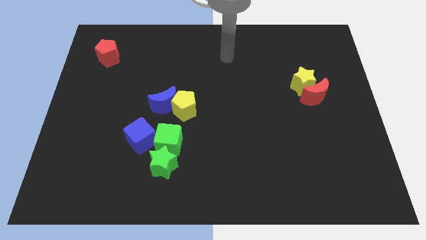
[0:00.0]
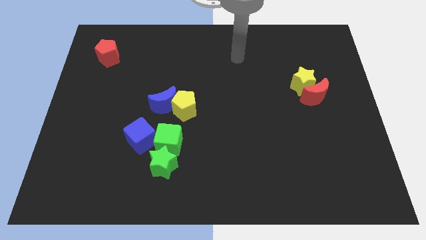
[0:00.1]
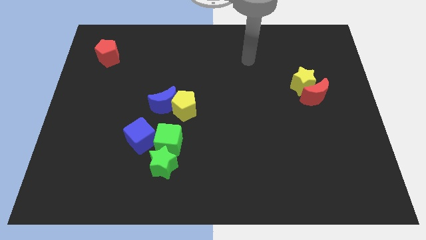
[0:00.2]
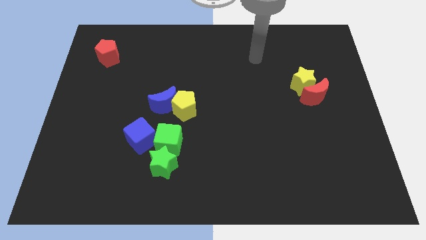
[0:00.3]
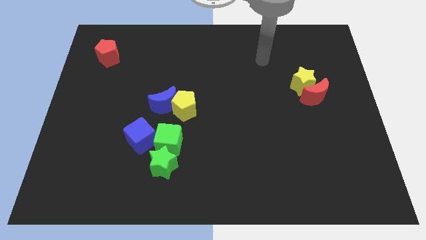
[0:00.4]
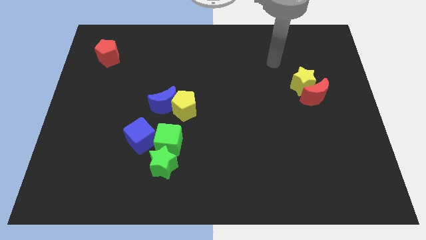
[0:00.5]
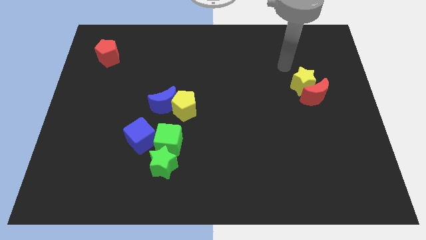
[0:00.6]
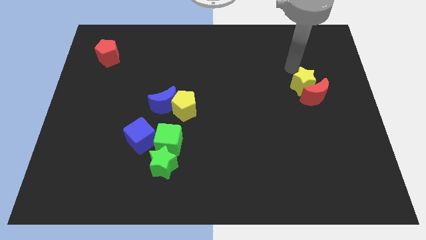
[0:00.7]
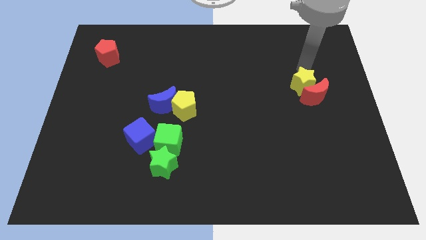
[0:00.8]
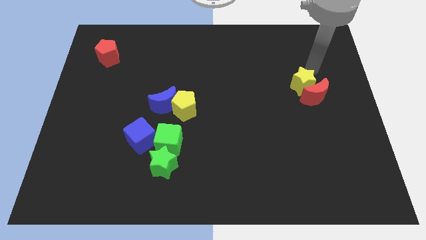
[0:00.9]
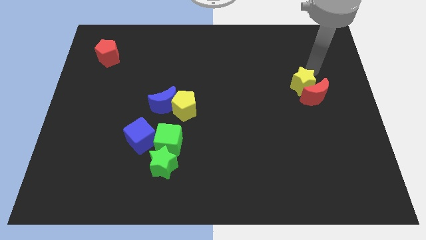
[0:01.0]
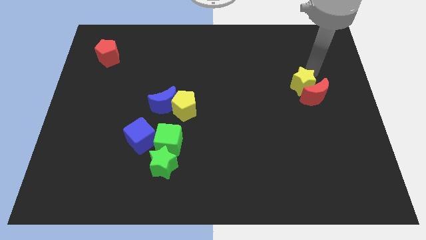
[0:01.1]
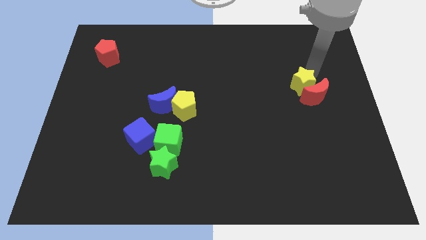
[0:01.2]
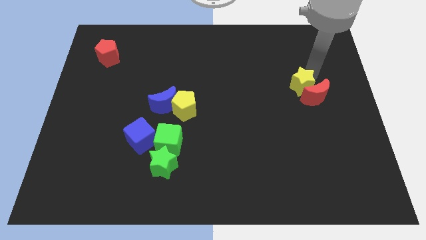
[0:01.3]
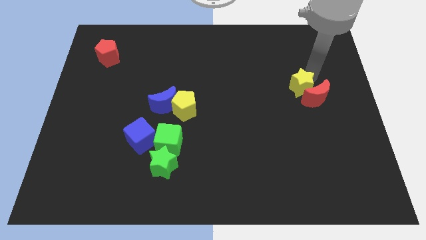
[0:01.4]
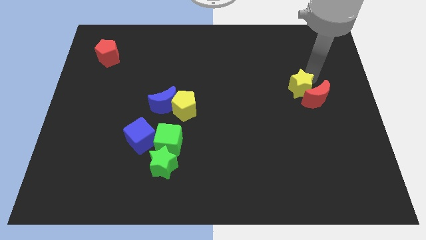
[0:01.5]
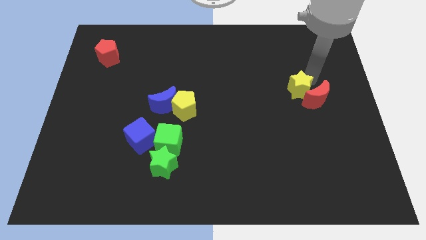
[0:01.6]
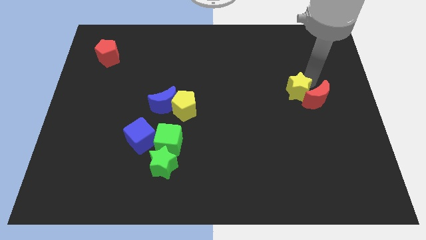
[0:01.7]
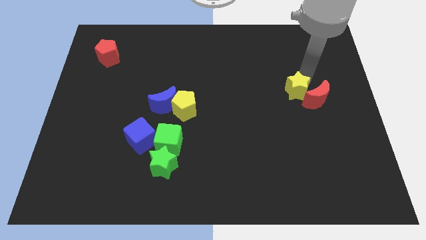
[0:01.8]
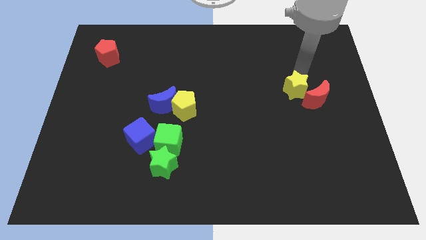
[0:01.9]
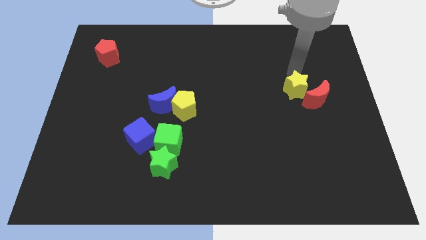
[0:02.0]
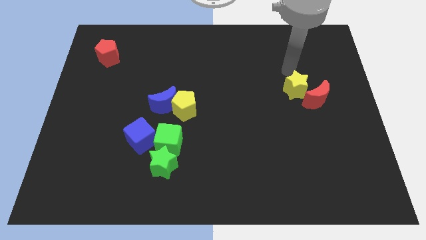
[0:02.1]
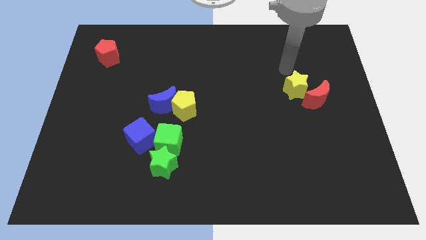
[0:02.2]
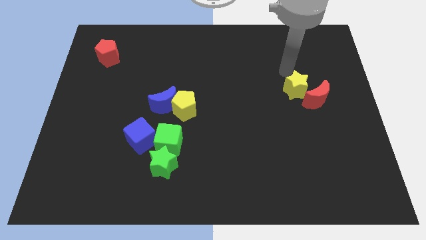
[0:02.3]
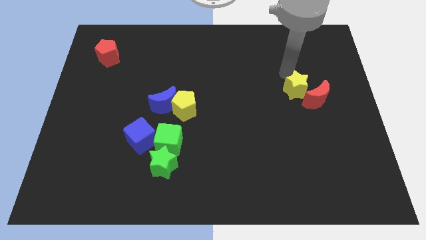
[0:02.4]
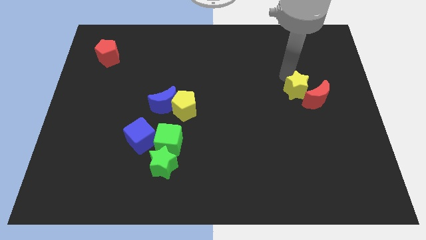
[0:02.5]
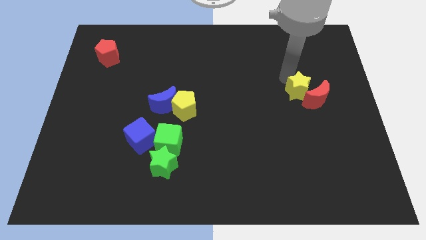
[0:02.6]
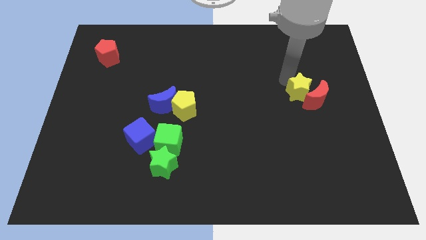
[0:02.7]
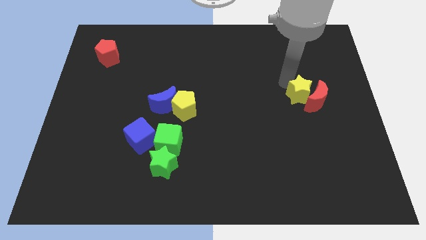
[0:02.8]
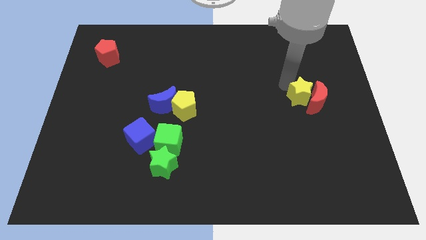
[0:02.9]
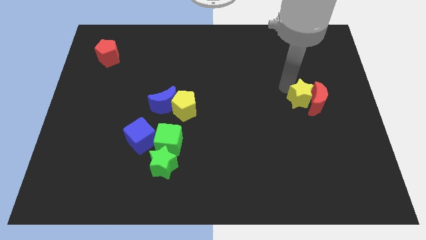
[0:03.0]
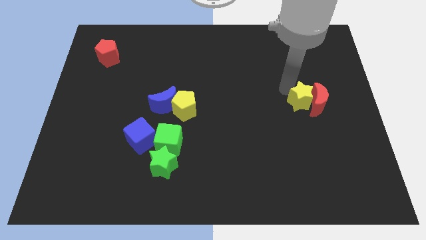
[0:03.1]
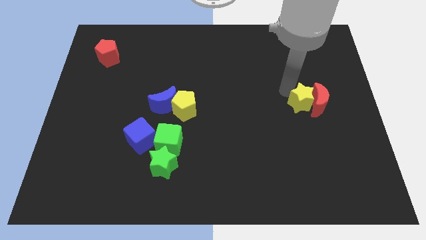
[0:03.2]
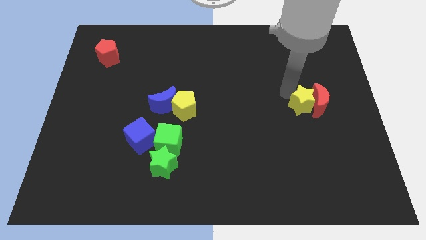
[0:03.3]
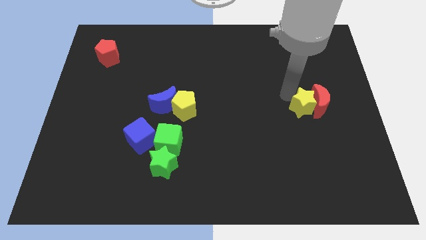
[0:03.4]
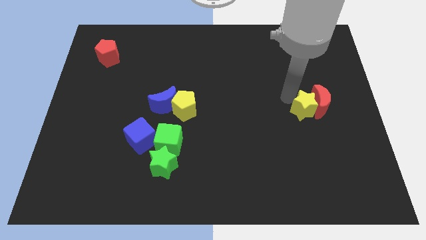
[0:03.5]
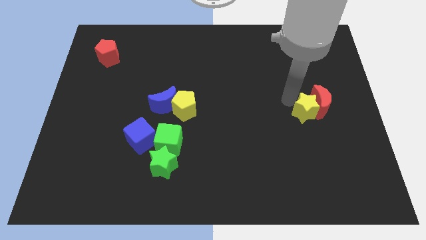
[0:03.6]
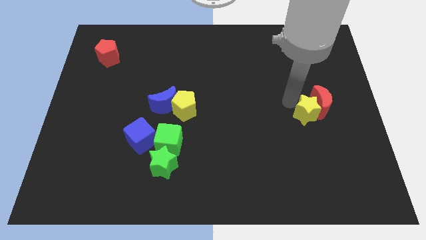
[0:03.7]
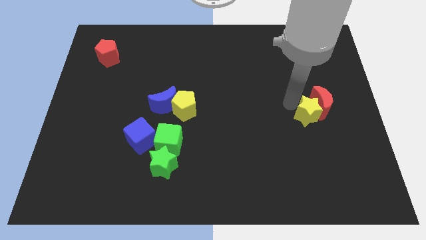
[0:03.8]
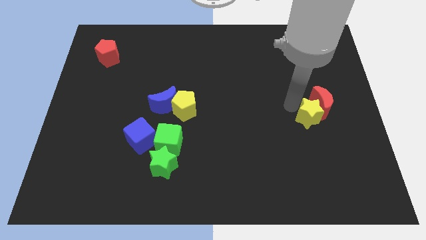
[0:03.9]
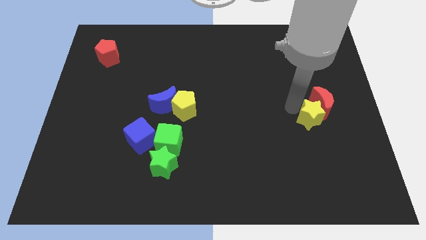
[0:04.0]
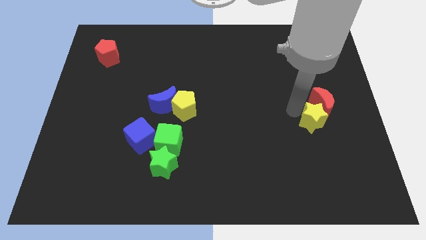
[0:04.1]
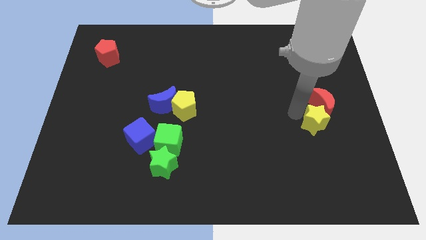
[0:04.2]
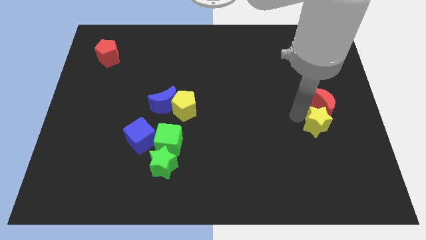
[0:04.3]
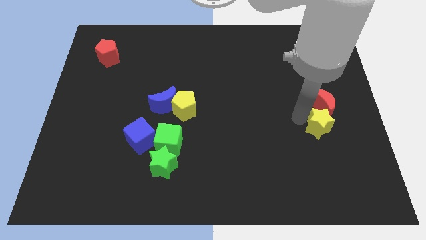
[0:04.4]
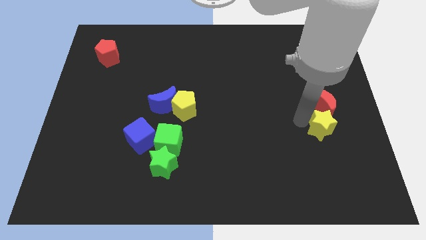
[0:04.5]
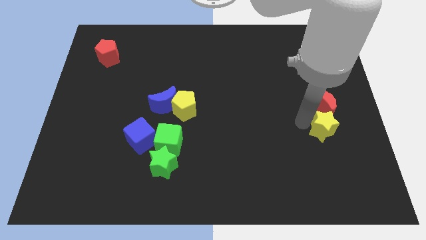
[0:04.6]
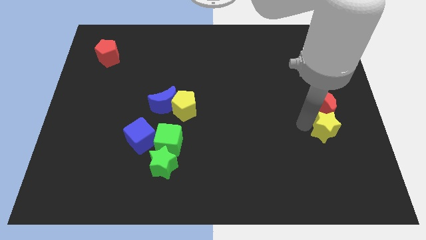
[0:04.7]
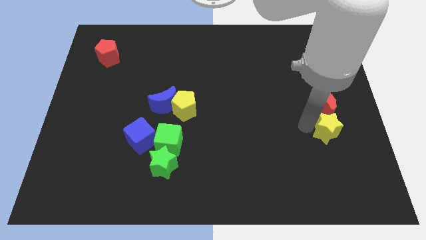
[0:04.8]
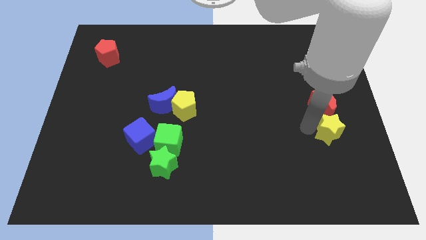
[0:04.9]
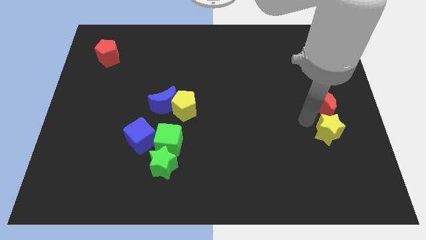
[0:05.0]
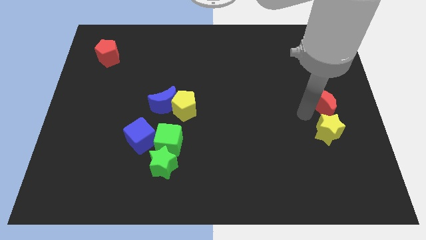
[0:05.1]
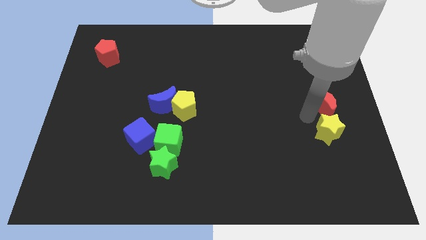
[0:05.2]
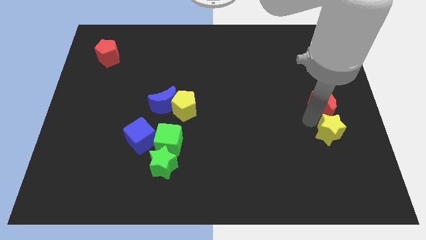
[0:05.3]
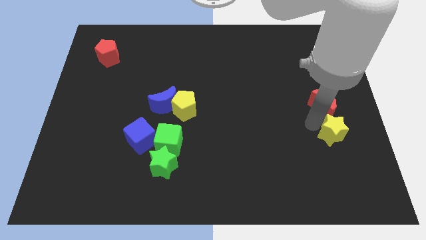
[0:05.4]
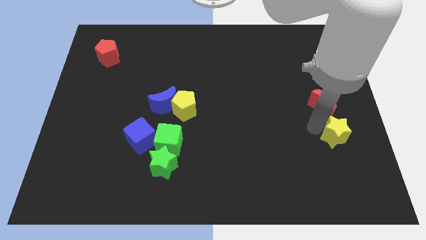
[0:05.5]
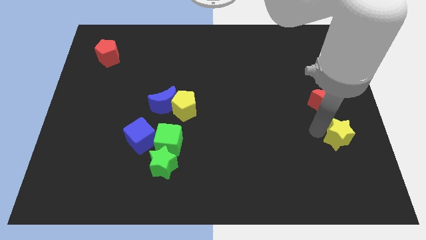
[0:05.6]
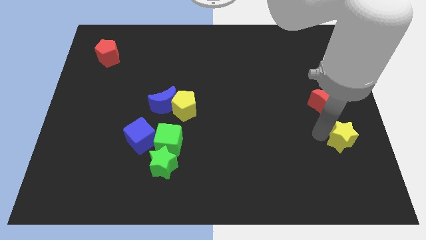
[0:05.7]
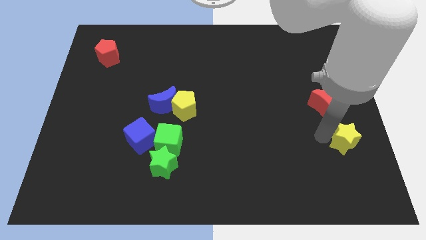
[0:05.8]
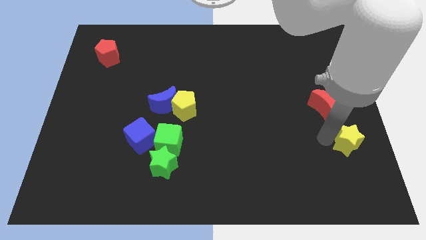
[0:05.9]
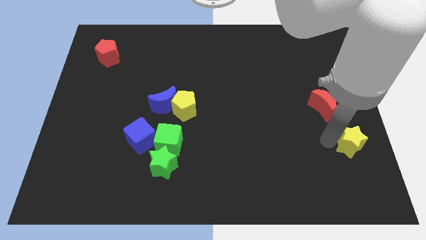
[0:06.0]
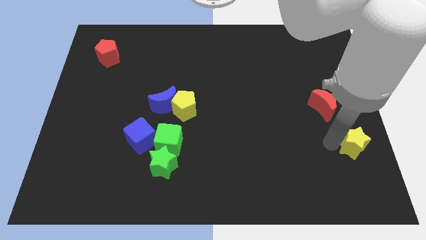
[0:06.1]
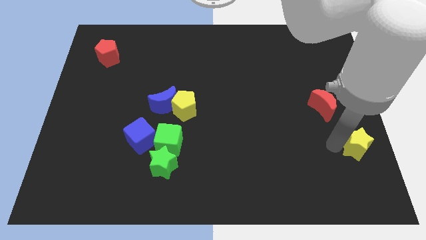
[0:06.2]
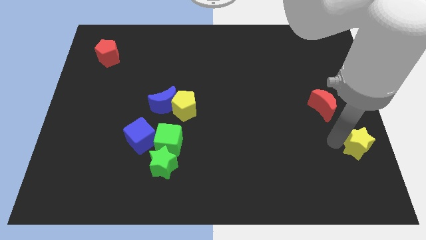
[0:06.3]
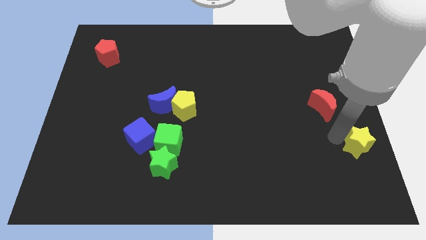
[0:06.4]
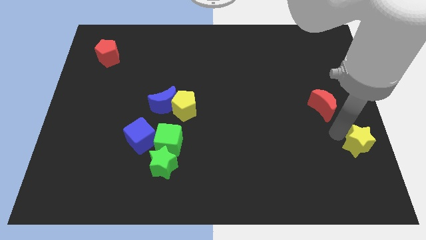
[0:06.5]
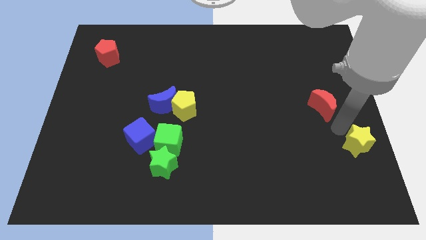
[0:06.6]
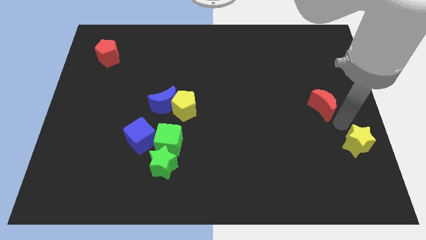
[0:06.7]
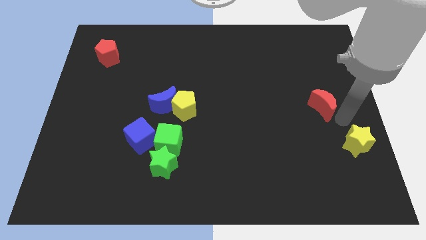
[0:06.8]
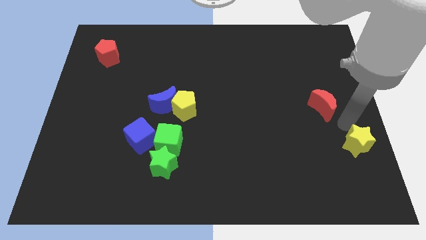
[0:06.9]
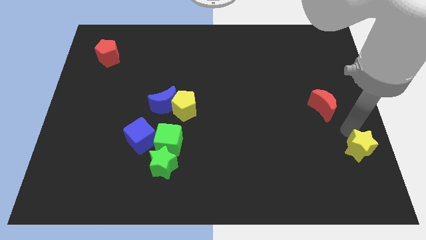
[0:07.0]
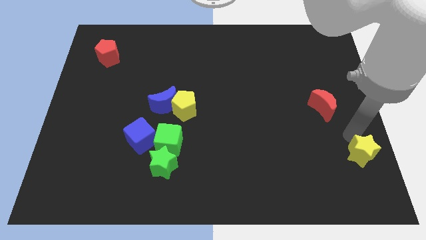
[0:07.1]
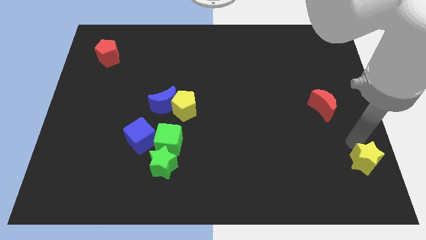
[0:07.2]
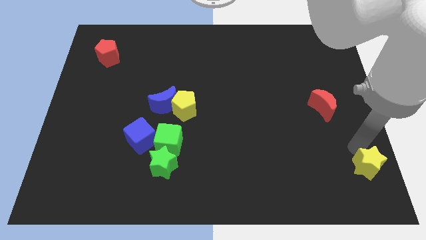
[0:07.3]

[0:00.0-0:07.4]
slide the yellow star to the bottom right of the board
